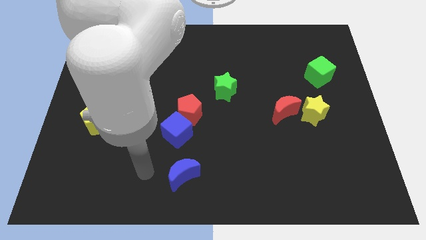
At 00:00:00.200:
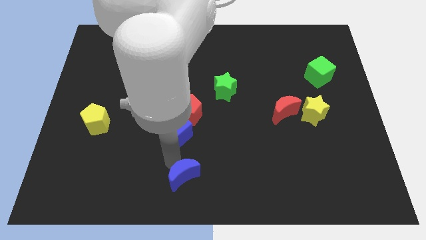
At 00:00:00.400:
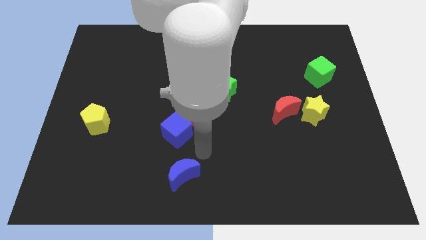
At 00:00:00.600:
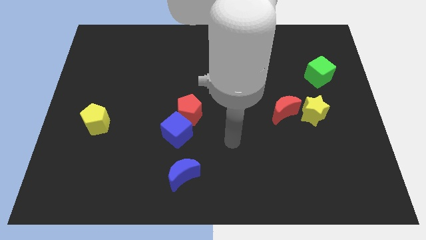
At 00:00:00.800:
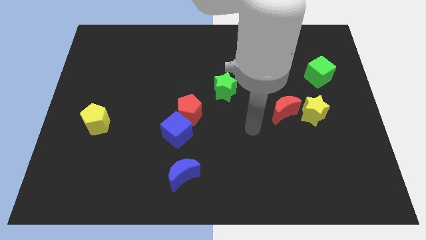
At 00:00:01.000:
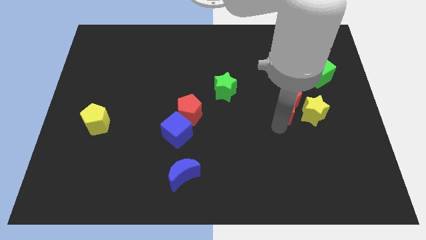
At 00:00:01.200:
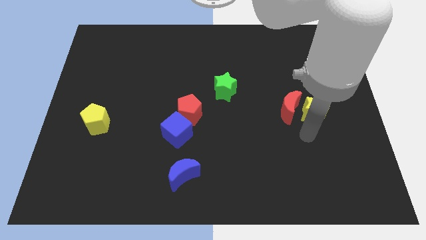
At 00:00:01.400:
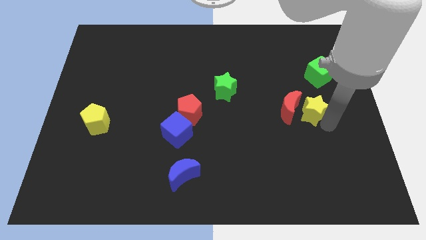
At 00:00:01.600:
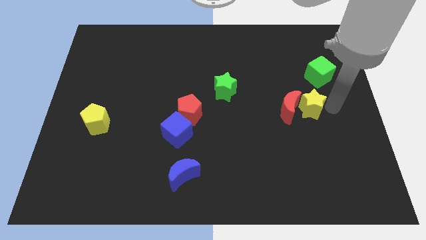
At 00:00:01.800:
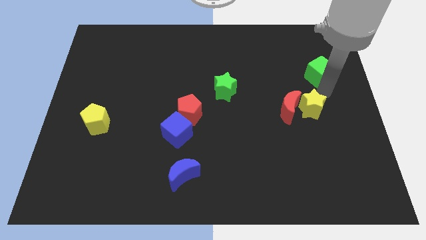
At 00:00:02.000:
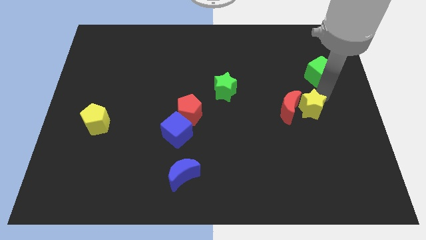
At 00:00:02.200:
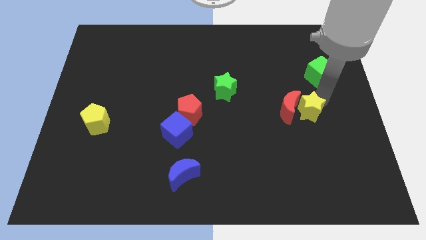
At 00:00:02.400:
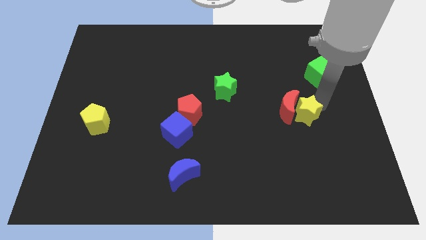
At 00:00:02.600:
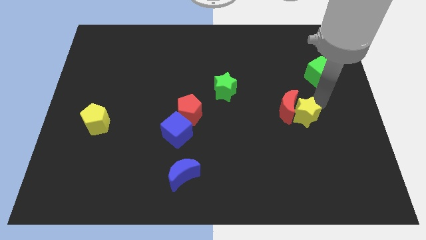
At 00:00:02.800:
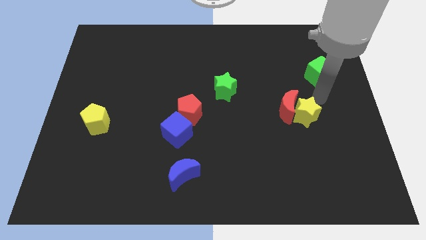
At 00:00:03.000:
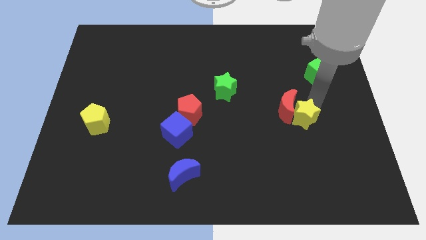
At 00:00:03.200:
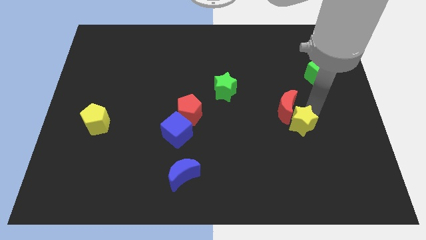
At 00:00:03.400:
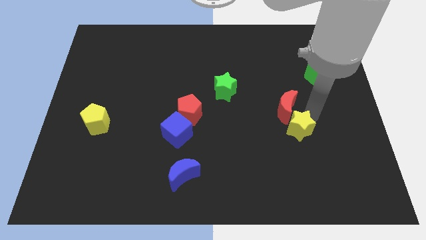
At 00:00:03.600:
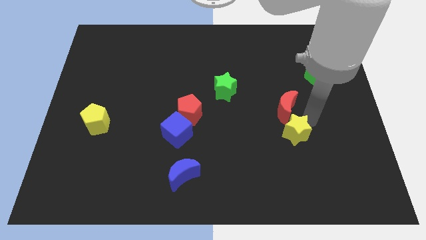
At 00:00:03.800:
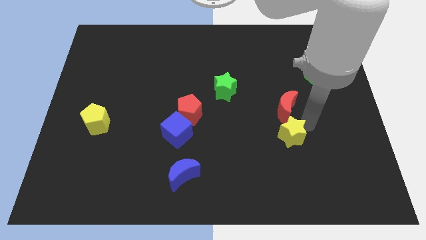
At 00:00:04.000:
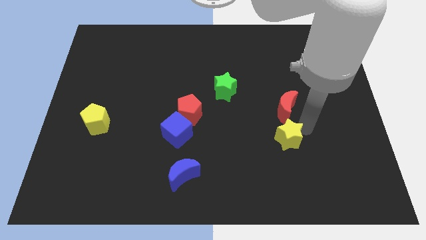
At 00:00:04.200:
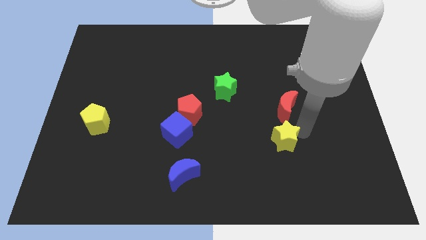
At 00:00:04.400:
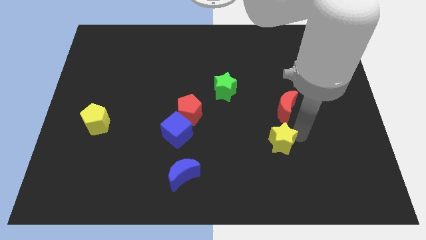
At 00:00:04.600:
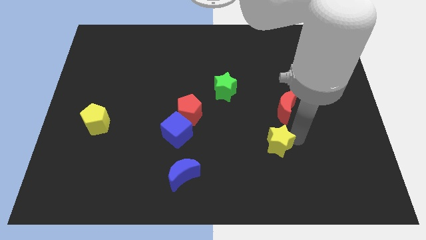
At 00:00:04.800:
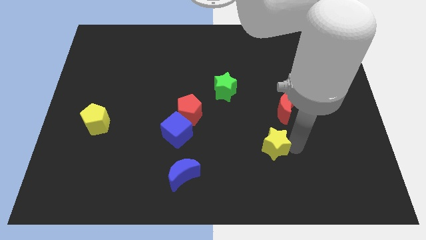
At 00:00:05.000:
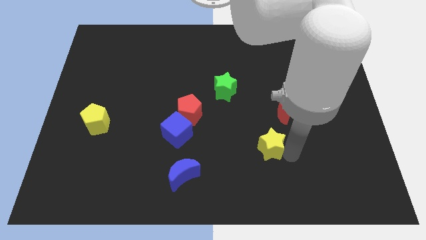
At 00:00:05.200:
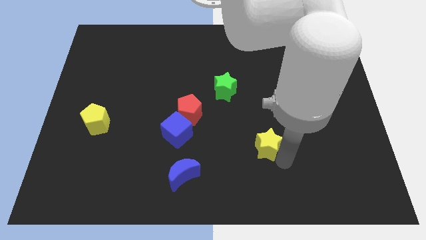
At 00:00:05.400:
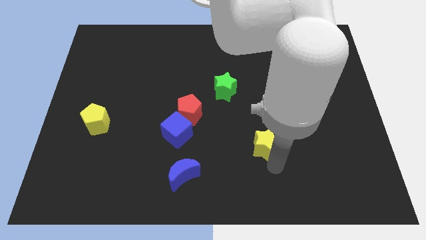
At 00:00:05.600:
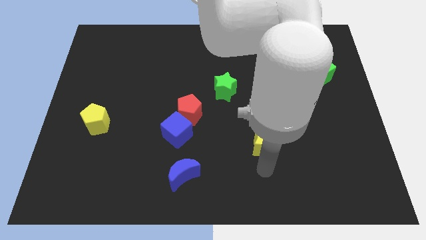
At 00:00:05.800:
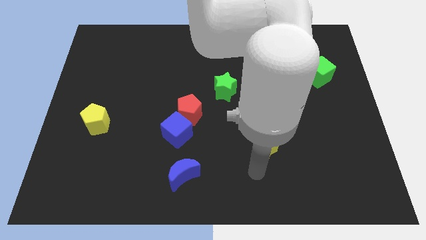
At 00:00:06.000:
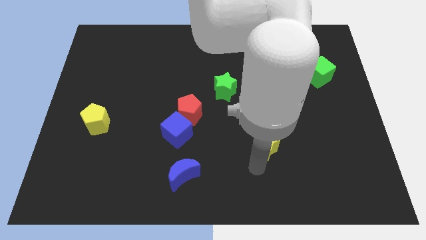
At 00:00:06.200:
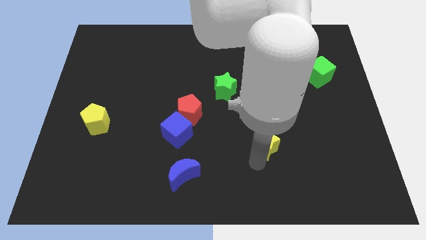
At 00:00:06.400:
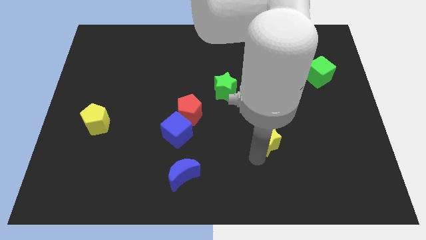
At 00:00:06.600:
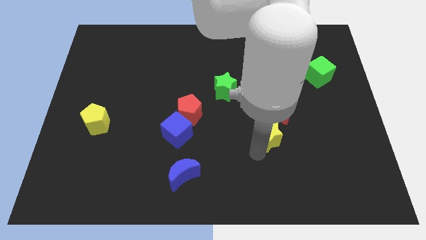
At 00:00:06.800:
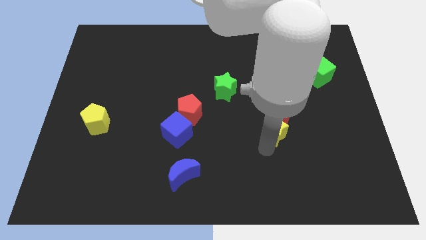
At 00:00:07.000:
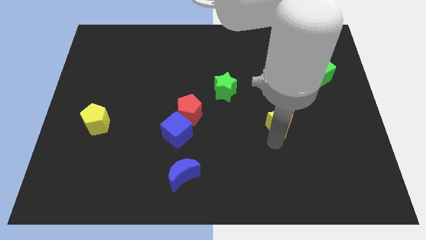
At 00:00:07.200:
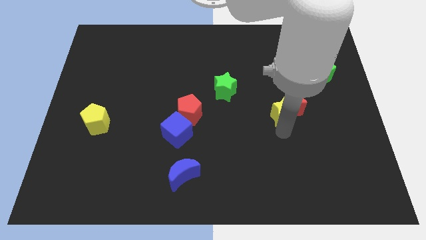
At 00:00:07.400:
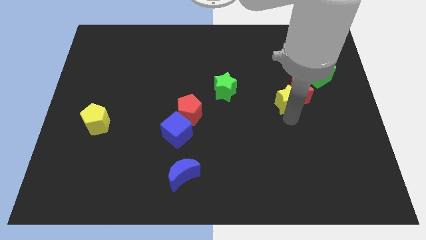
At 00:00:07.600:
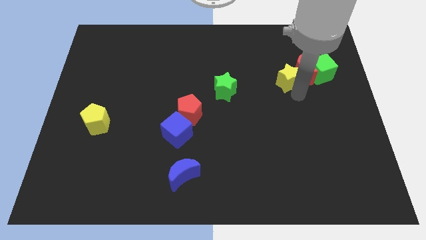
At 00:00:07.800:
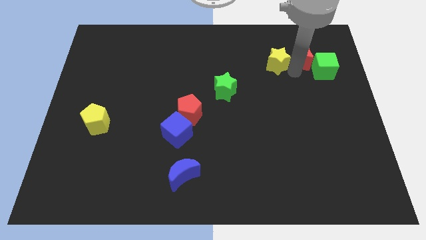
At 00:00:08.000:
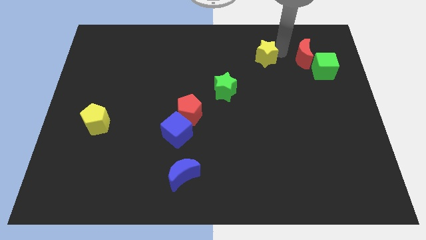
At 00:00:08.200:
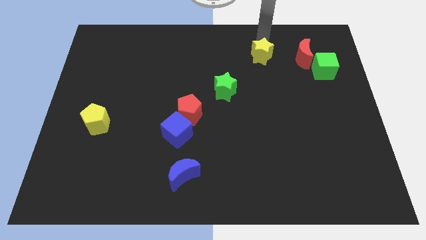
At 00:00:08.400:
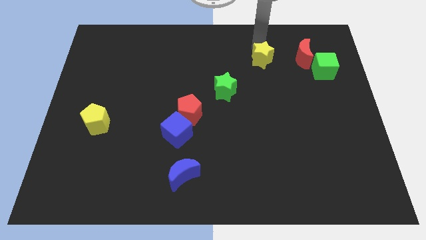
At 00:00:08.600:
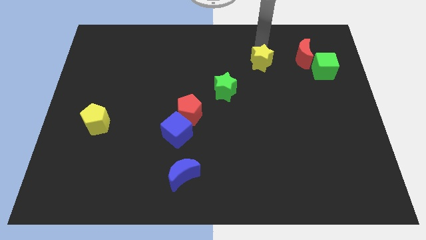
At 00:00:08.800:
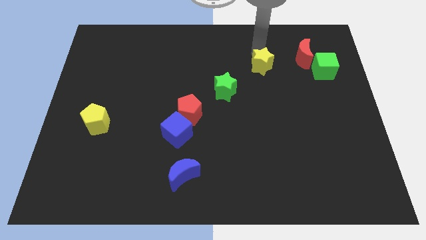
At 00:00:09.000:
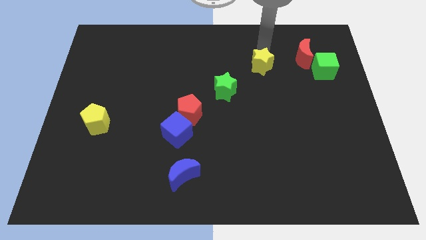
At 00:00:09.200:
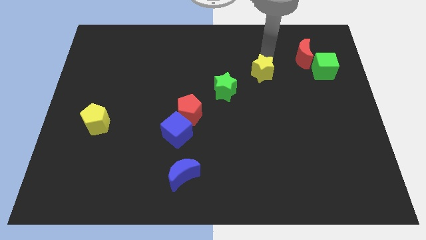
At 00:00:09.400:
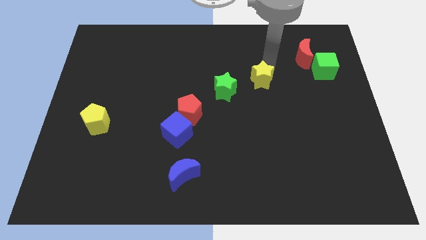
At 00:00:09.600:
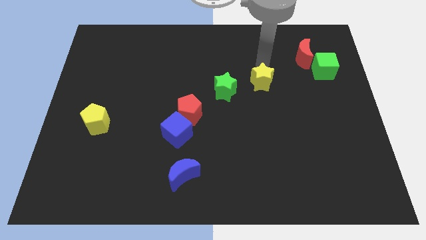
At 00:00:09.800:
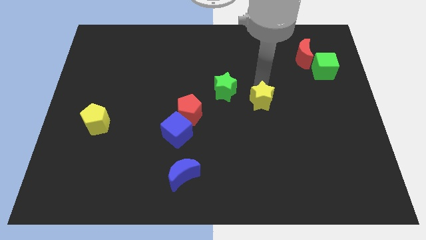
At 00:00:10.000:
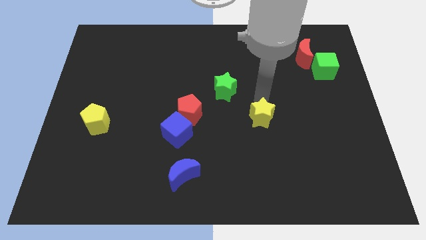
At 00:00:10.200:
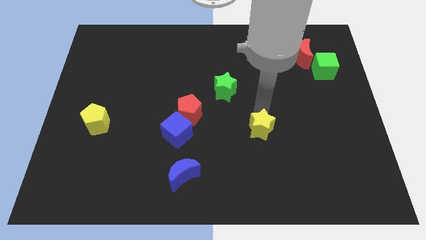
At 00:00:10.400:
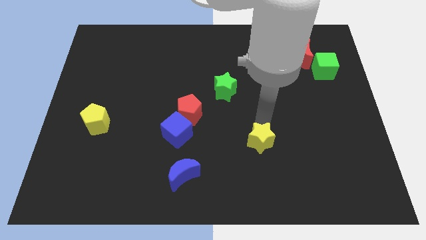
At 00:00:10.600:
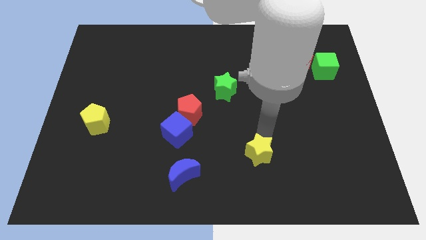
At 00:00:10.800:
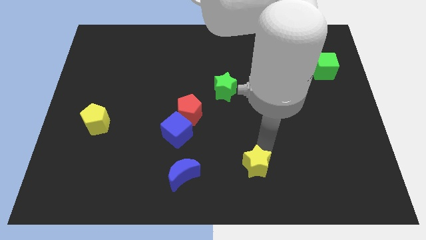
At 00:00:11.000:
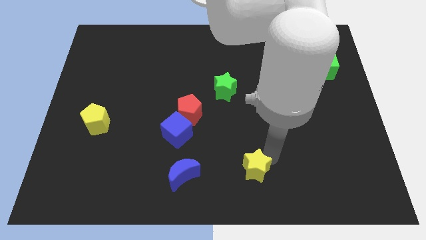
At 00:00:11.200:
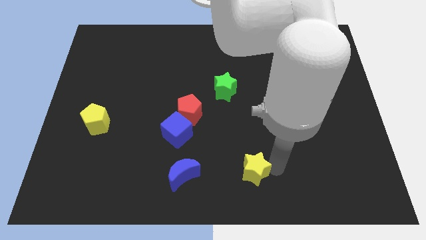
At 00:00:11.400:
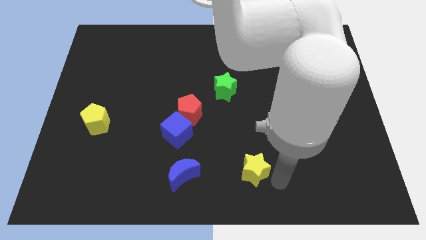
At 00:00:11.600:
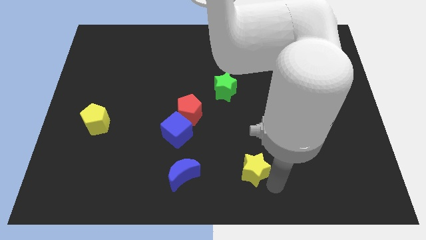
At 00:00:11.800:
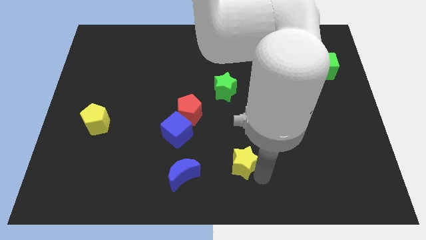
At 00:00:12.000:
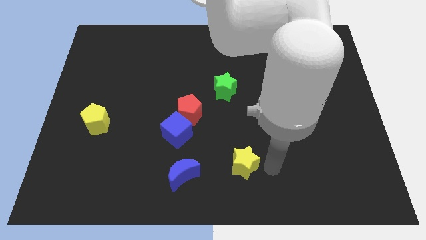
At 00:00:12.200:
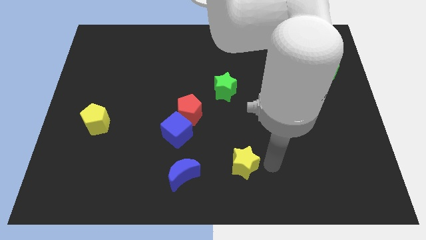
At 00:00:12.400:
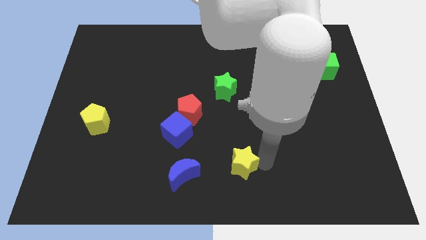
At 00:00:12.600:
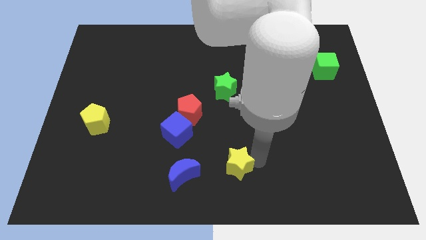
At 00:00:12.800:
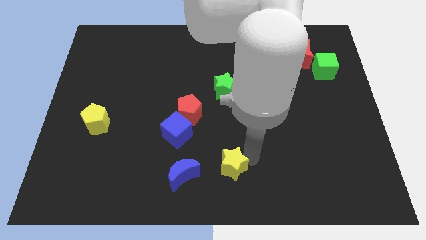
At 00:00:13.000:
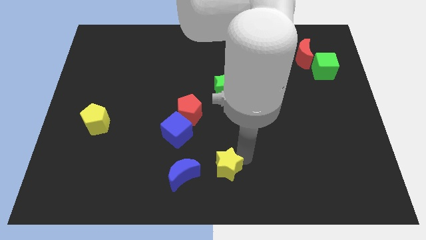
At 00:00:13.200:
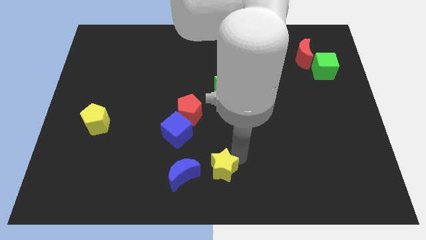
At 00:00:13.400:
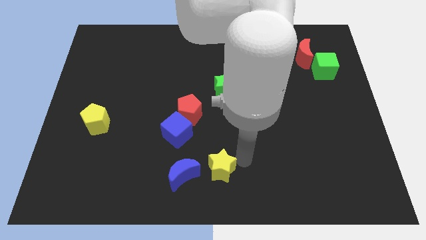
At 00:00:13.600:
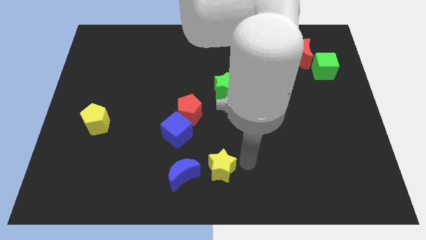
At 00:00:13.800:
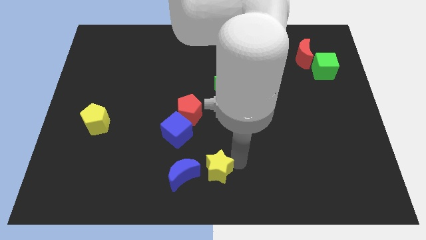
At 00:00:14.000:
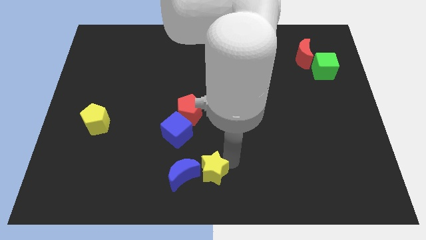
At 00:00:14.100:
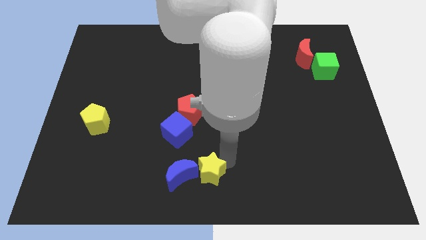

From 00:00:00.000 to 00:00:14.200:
put the yellow star close to the blue moon
